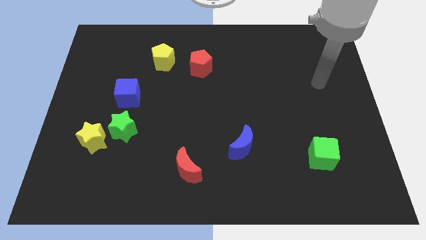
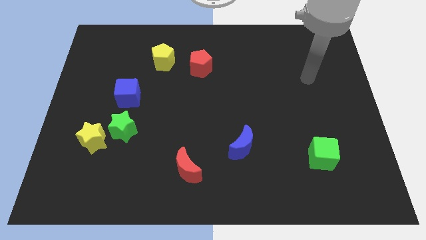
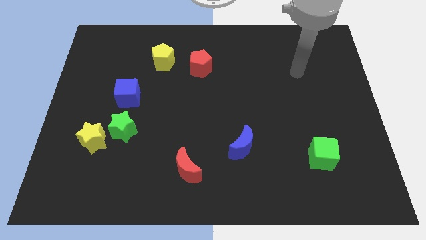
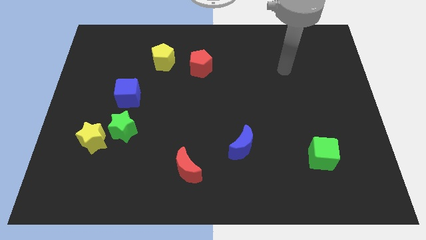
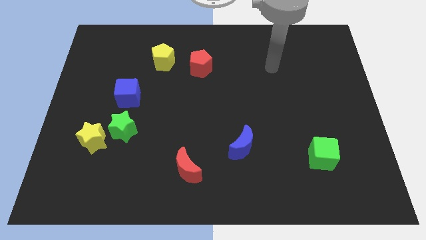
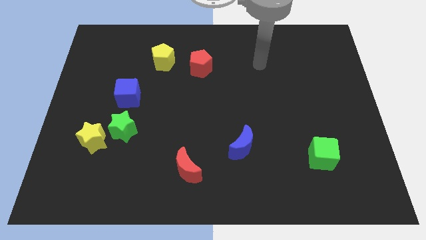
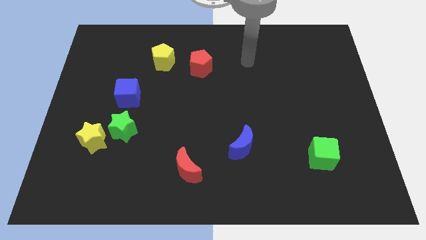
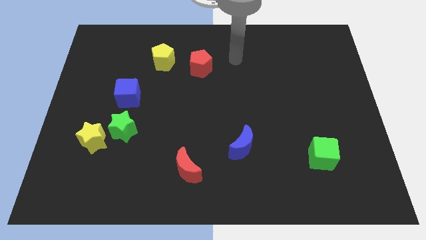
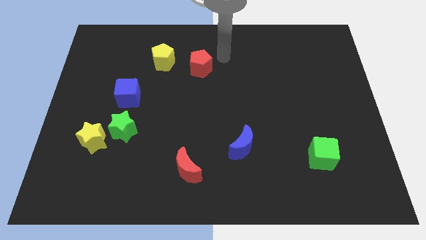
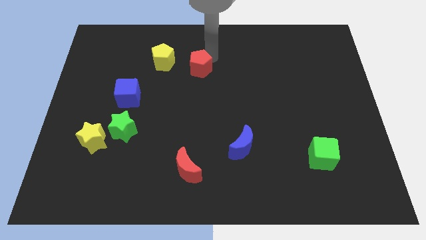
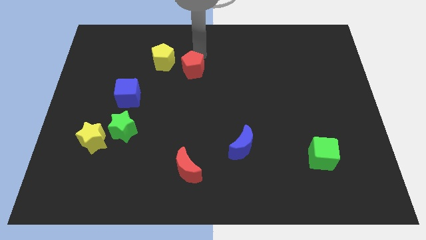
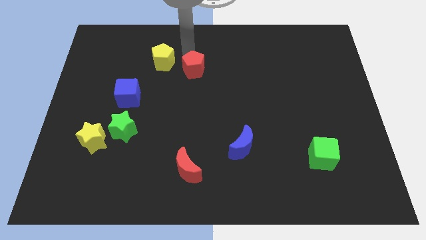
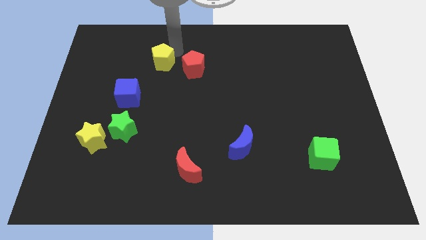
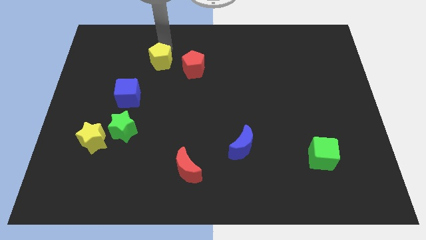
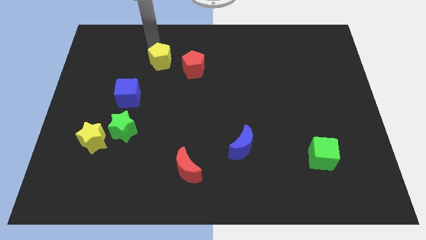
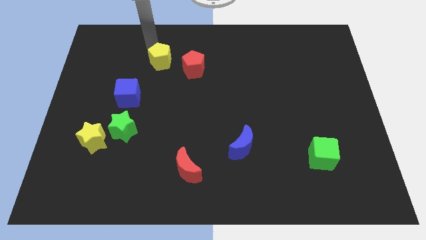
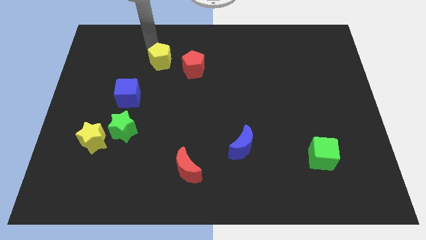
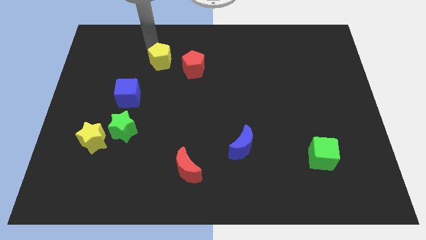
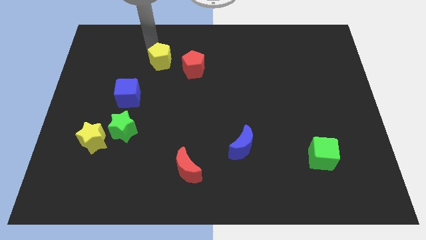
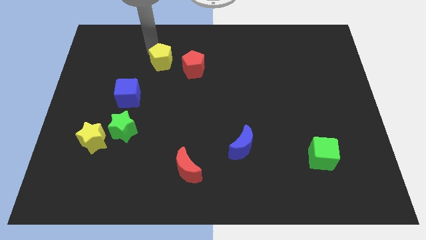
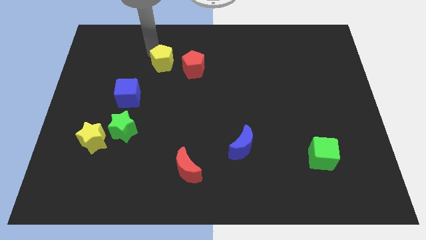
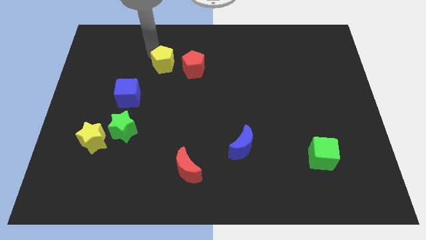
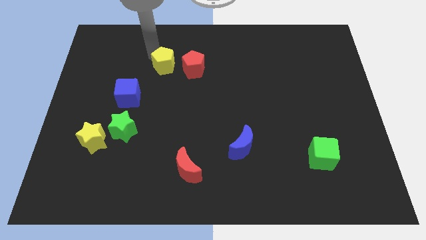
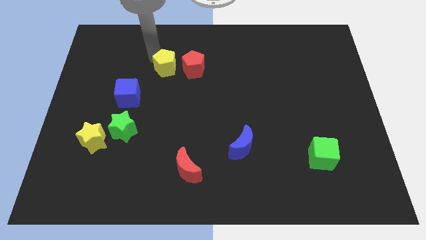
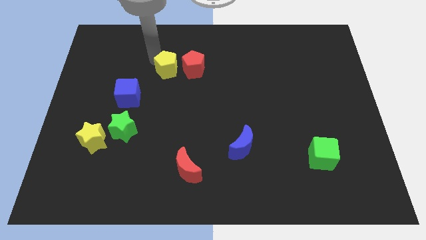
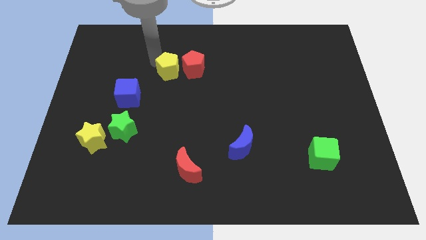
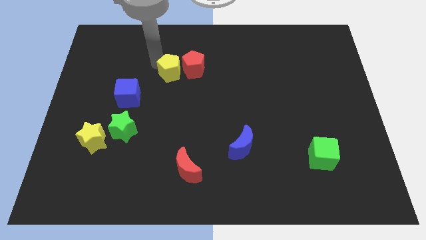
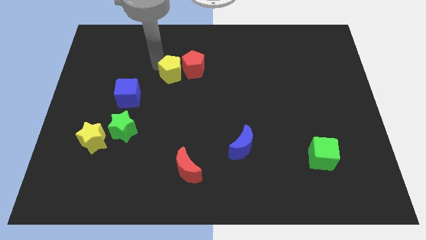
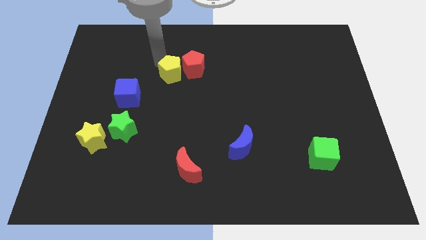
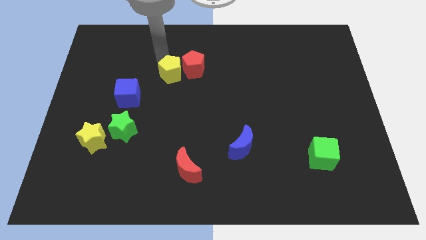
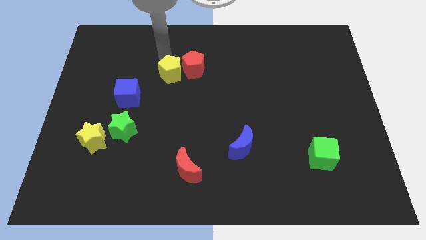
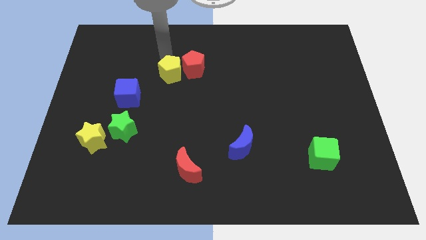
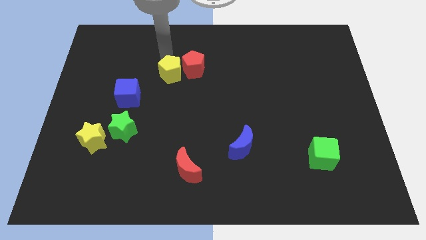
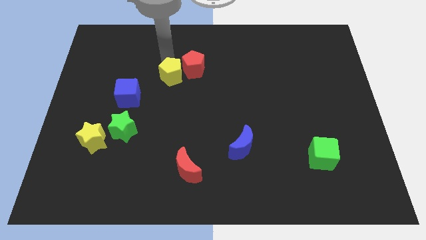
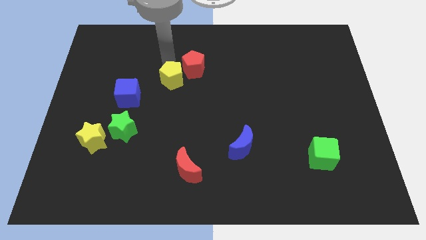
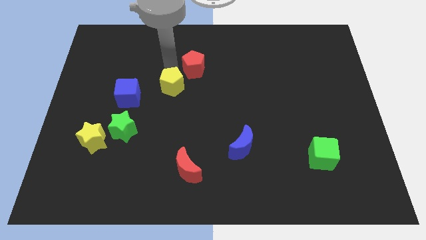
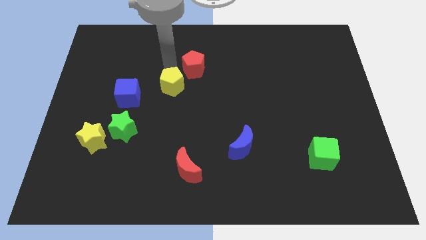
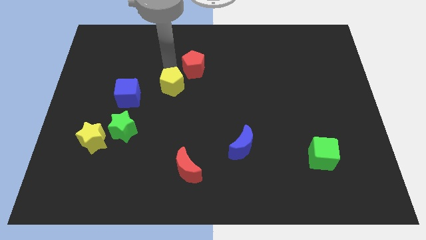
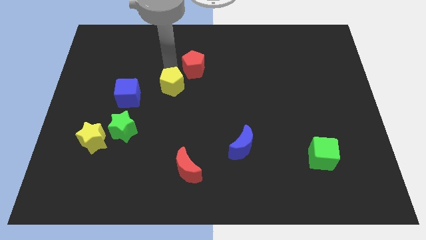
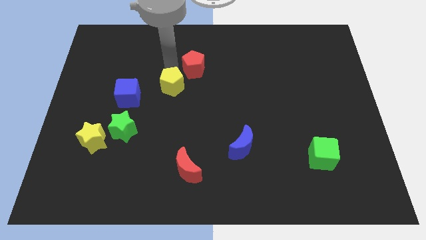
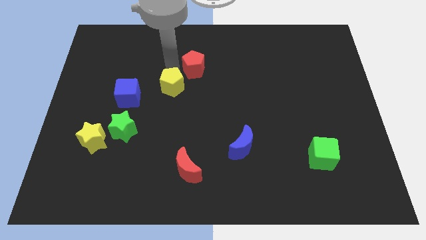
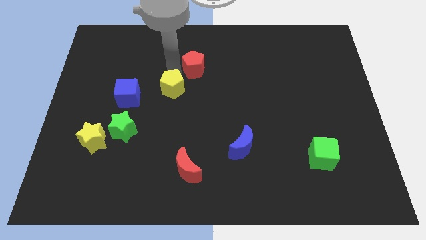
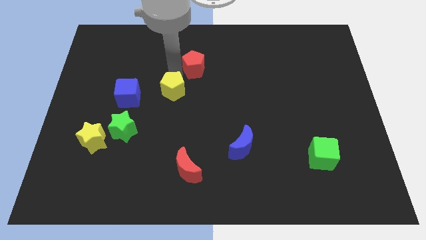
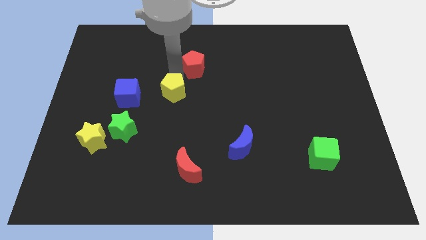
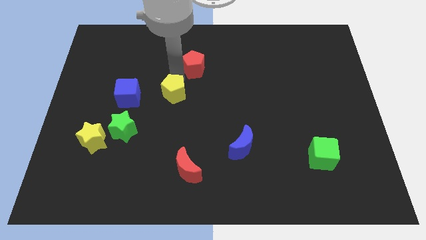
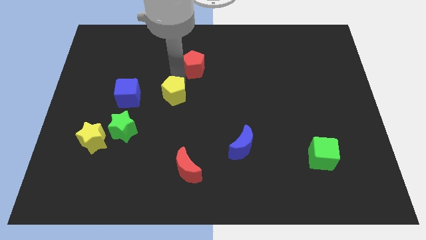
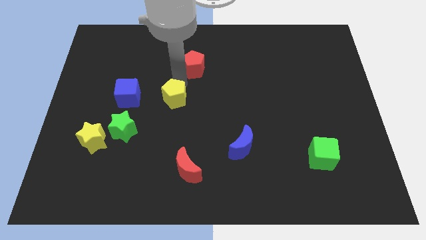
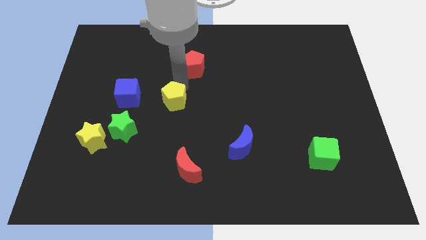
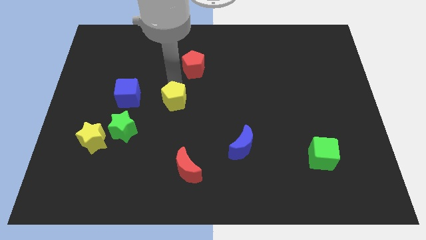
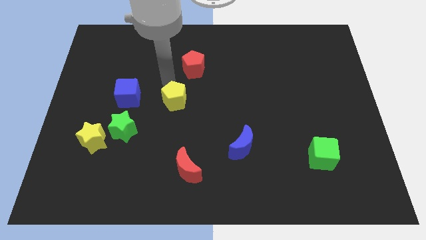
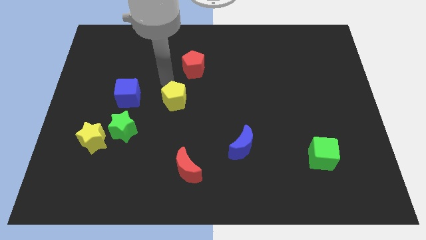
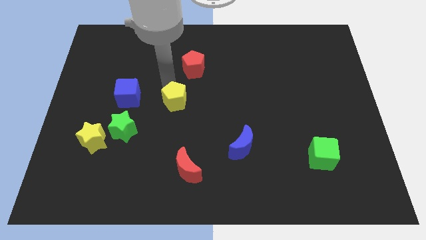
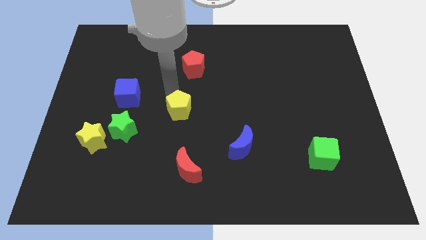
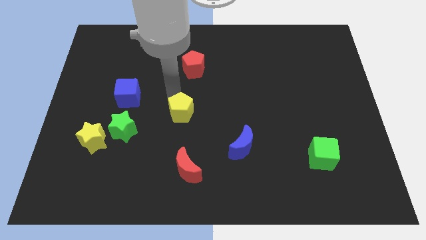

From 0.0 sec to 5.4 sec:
push the yellow pentagon to the top of the red moon

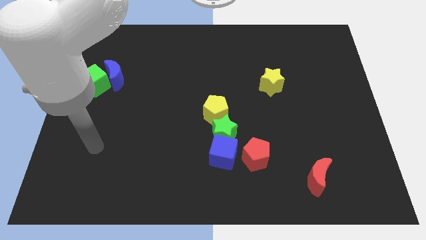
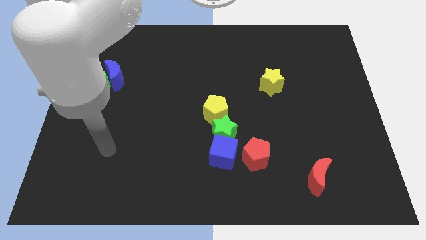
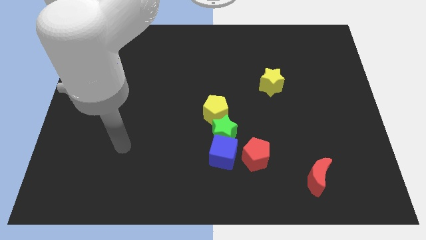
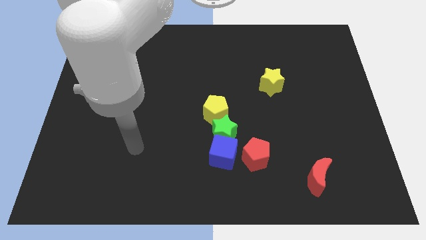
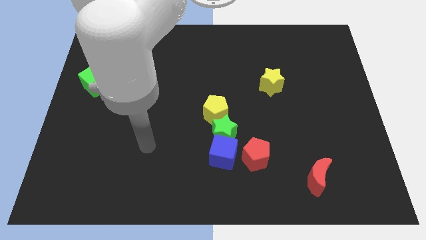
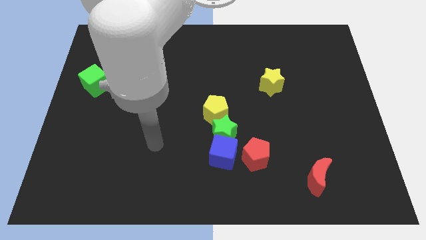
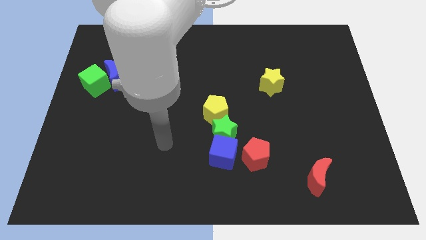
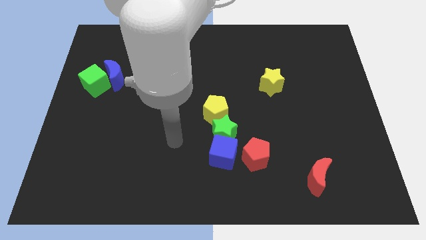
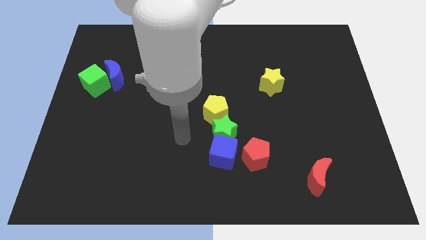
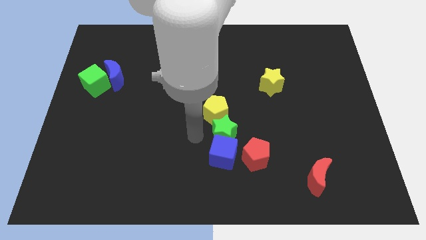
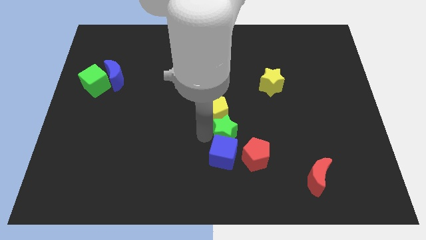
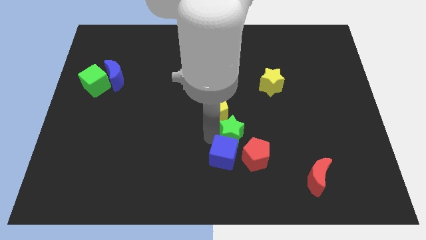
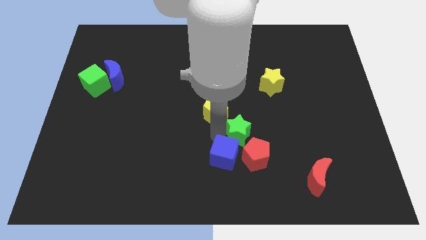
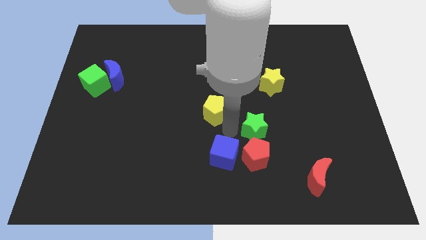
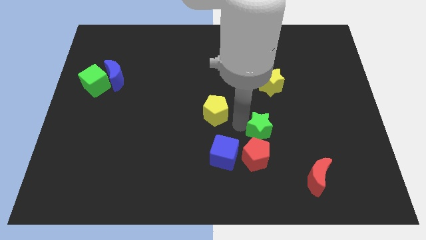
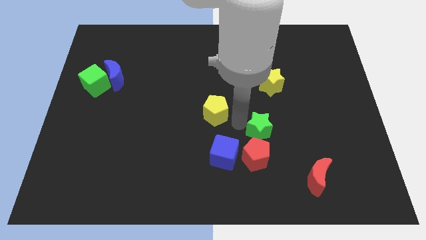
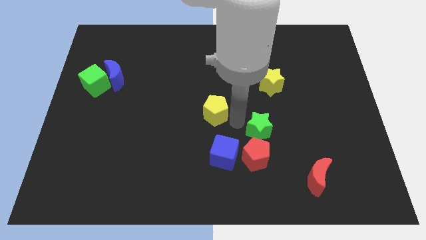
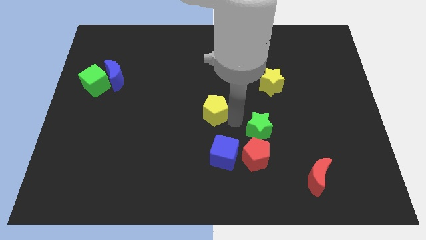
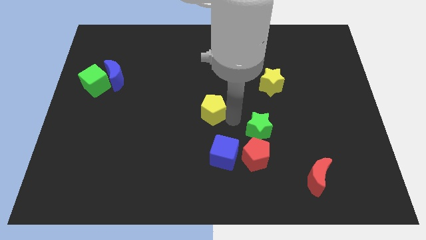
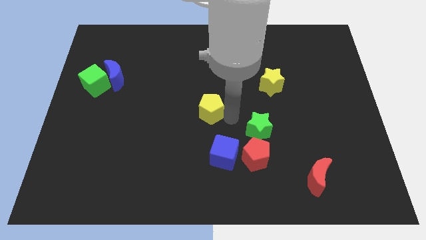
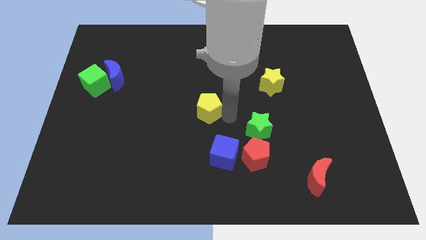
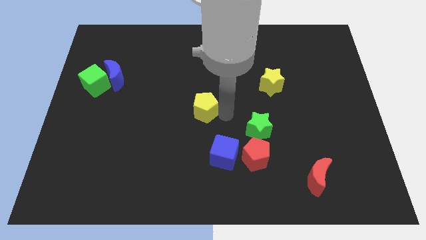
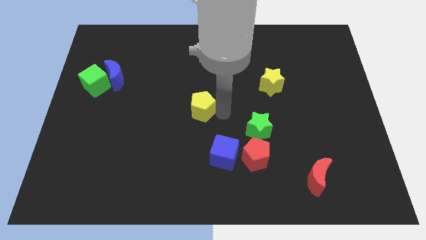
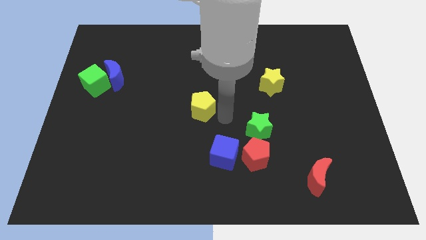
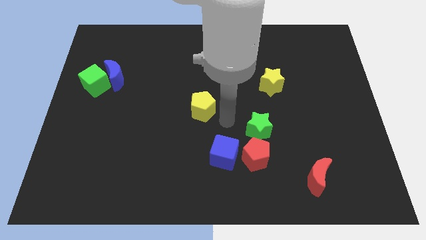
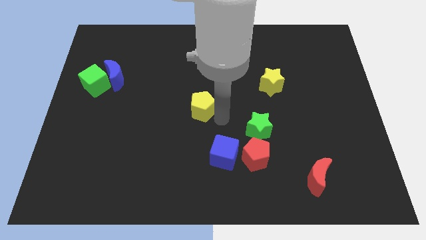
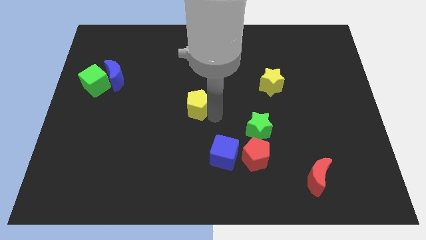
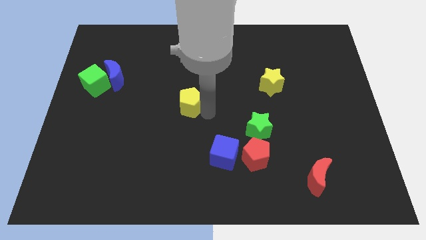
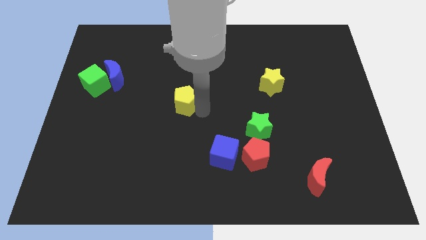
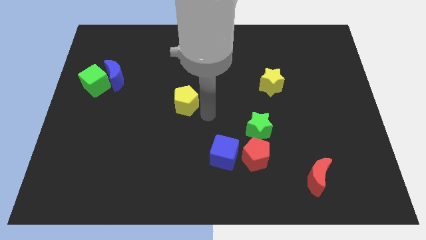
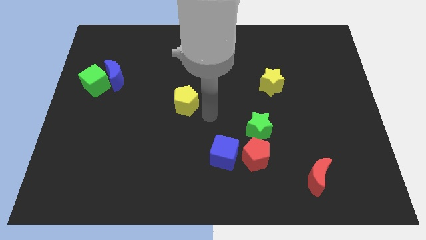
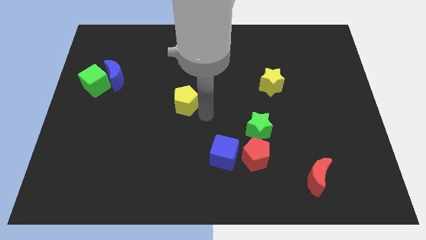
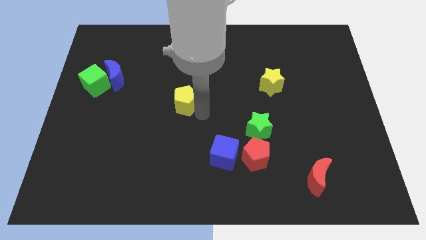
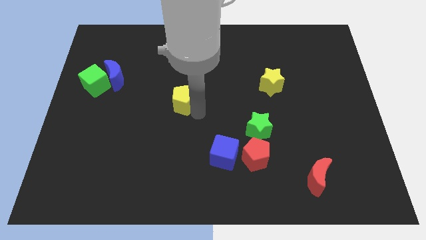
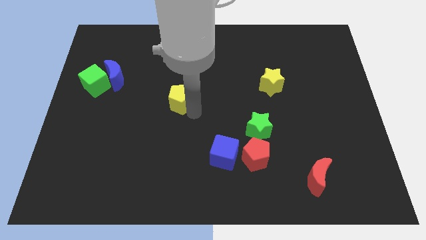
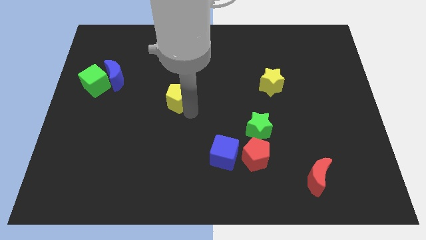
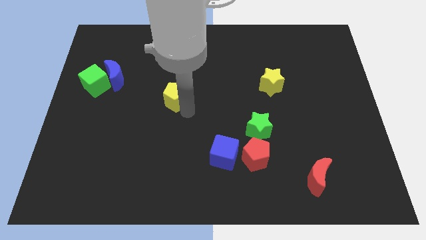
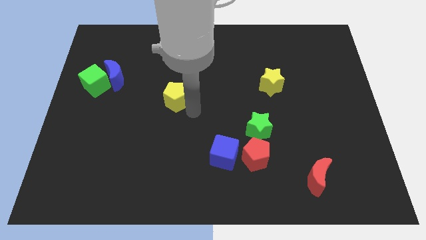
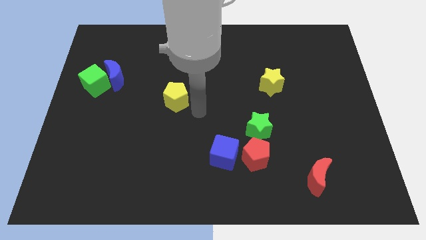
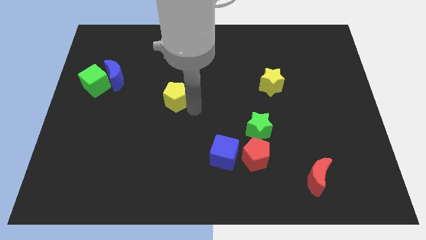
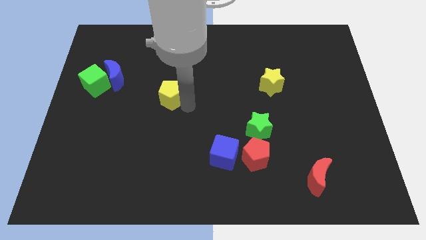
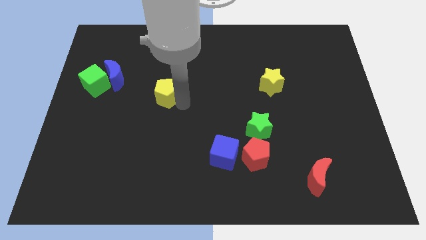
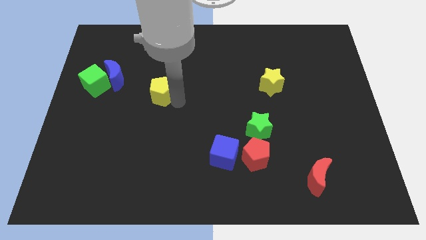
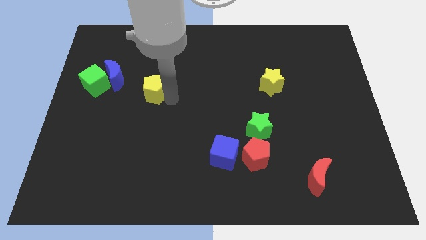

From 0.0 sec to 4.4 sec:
push the yellow pentagon to the right of the green cube
